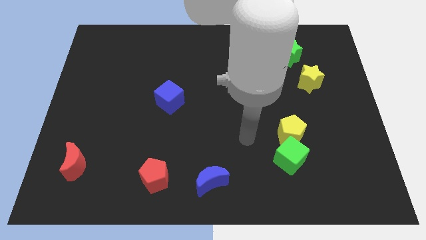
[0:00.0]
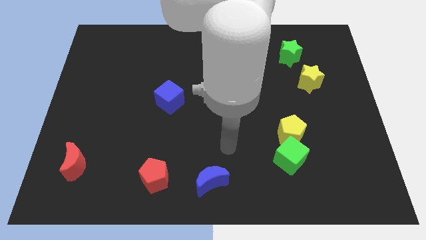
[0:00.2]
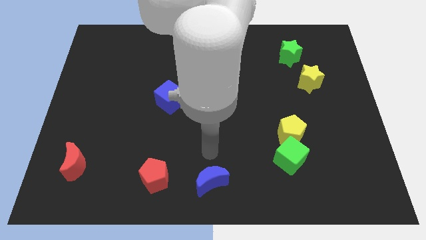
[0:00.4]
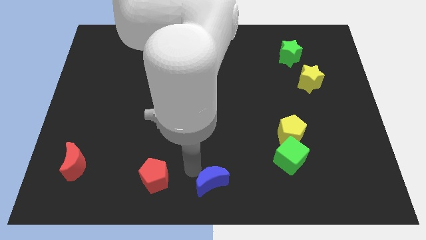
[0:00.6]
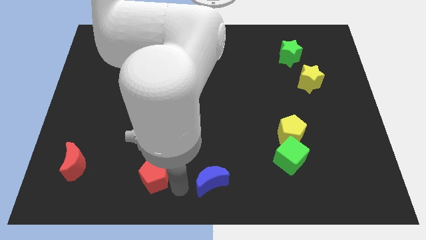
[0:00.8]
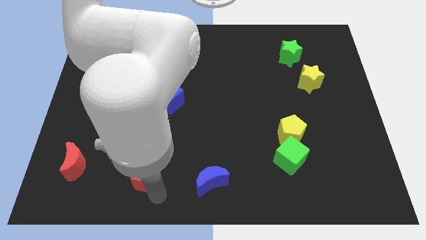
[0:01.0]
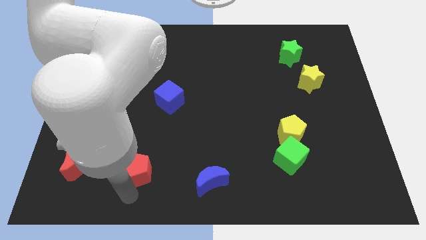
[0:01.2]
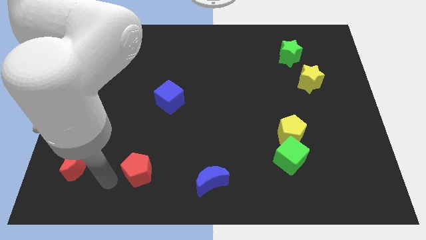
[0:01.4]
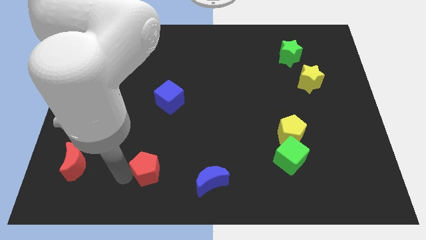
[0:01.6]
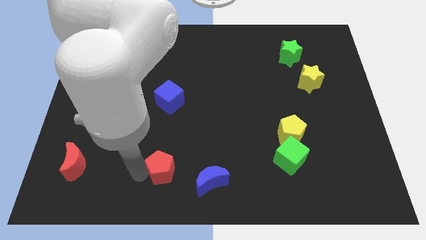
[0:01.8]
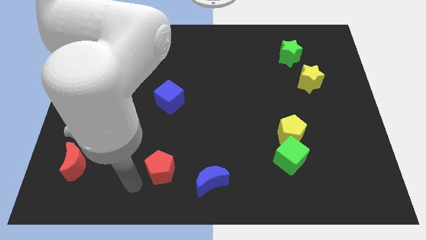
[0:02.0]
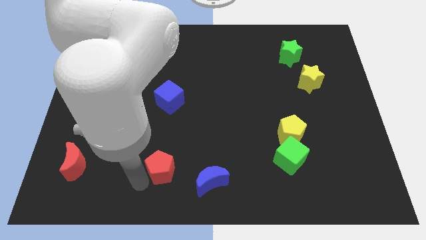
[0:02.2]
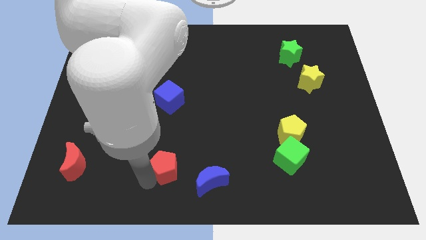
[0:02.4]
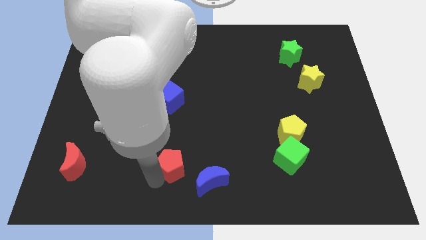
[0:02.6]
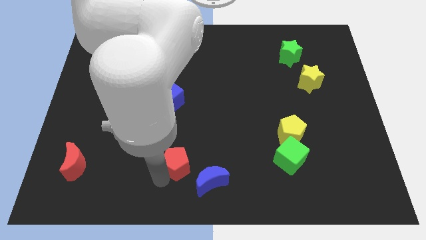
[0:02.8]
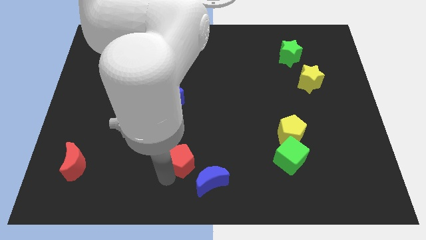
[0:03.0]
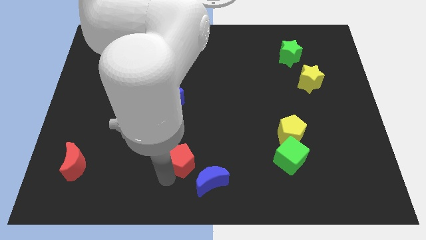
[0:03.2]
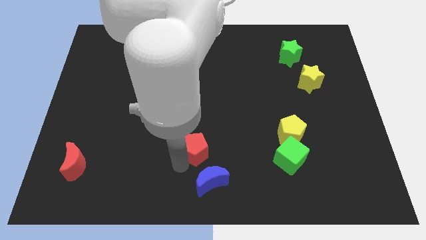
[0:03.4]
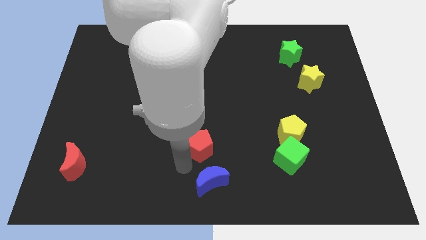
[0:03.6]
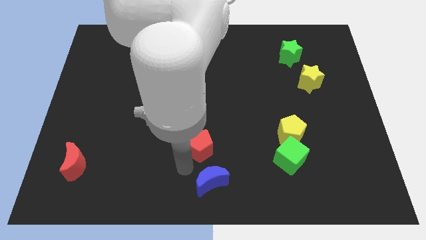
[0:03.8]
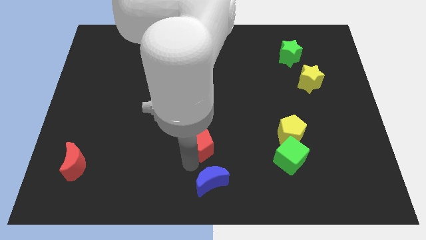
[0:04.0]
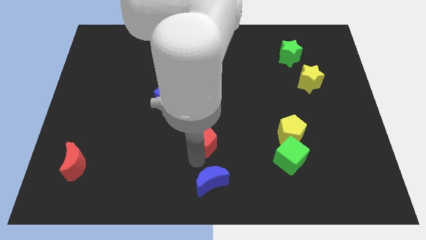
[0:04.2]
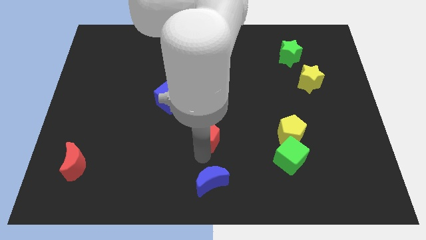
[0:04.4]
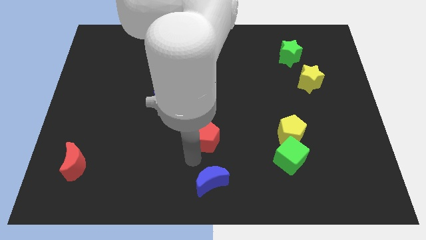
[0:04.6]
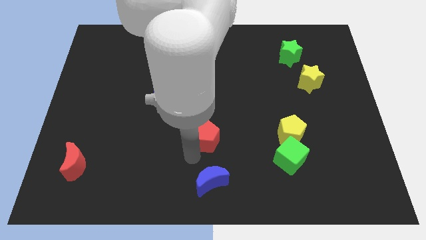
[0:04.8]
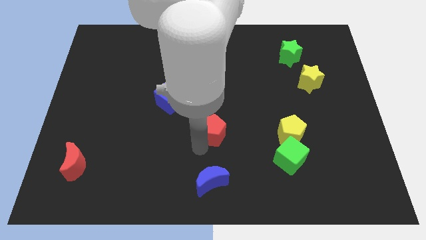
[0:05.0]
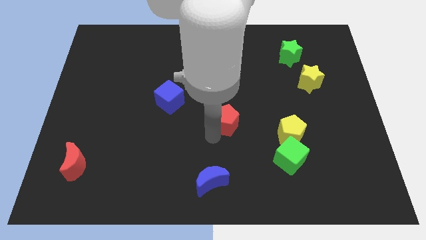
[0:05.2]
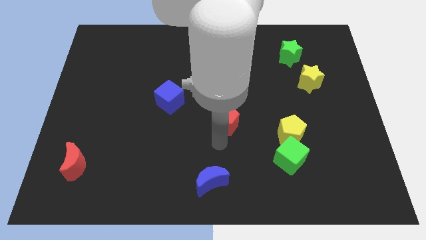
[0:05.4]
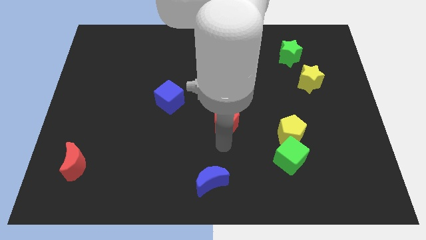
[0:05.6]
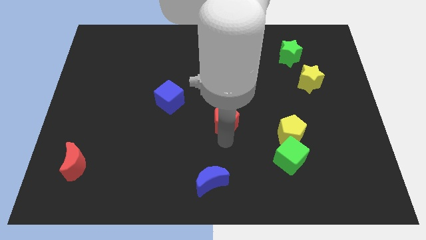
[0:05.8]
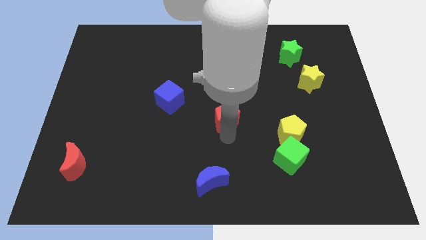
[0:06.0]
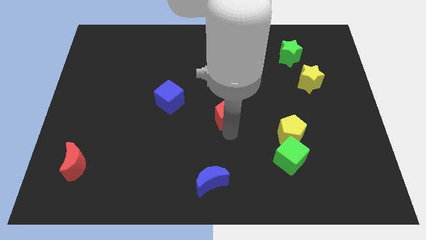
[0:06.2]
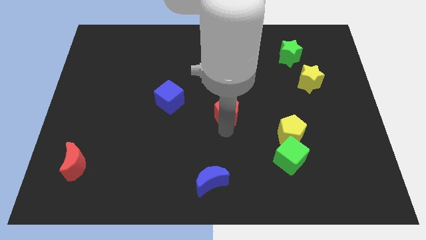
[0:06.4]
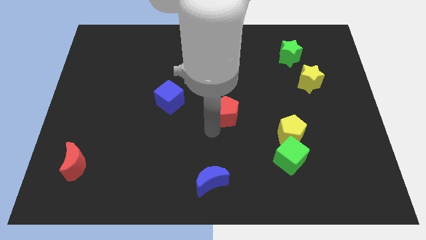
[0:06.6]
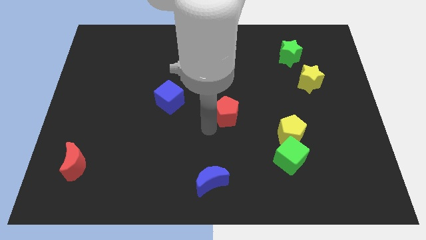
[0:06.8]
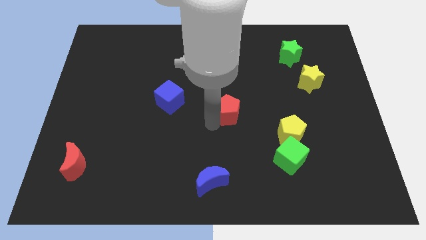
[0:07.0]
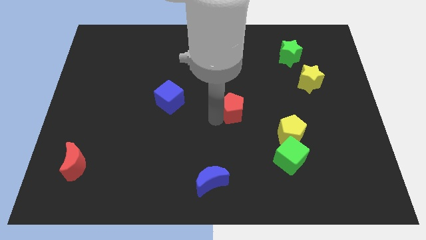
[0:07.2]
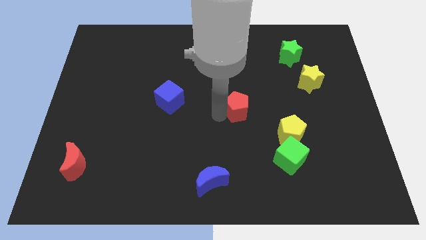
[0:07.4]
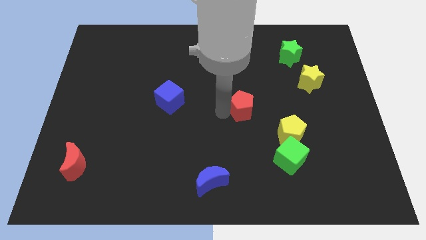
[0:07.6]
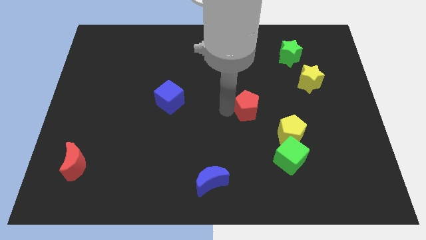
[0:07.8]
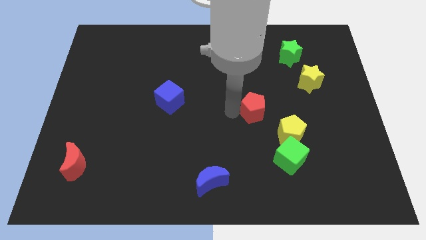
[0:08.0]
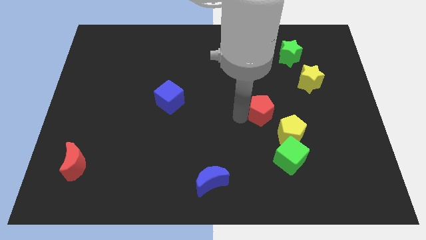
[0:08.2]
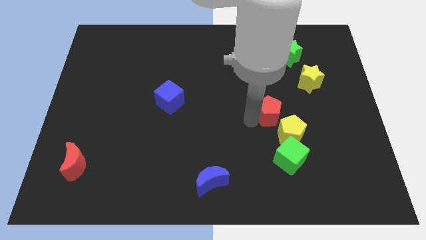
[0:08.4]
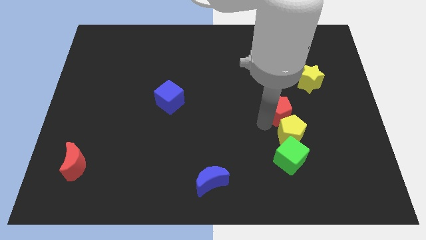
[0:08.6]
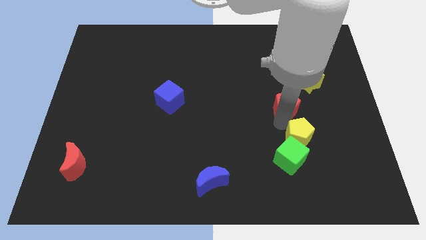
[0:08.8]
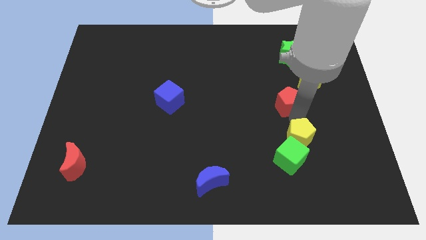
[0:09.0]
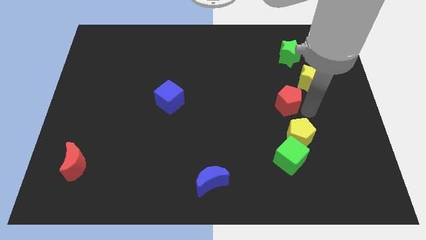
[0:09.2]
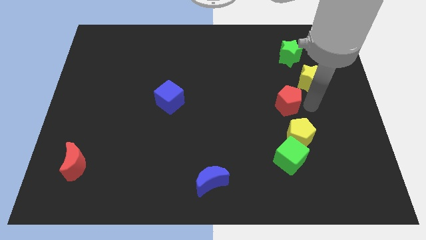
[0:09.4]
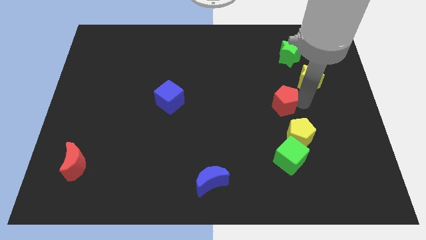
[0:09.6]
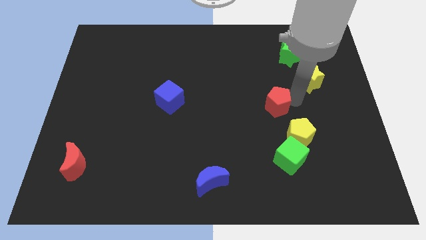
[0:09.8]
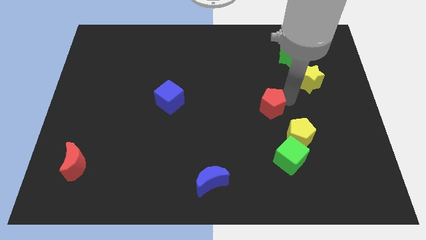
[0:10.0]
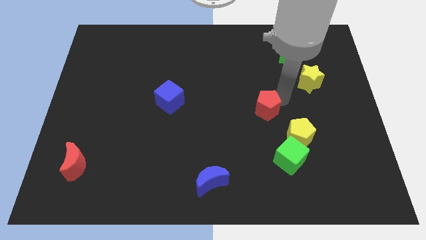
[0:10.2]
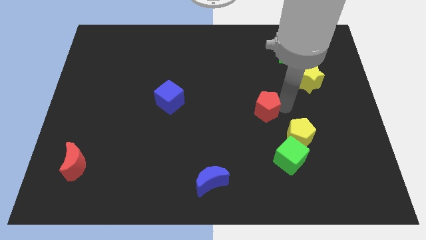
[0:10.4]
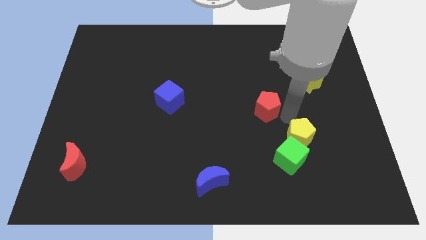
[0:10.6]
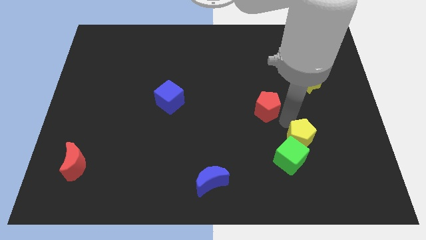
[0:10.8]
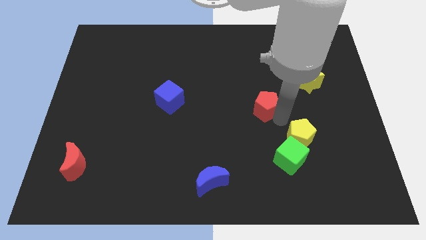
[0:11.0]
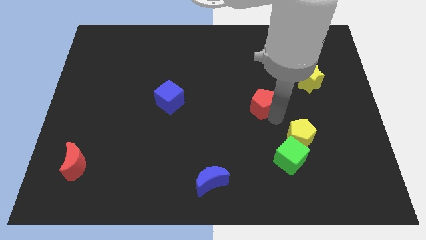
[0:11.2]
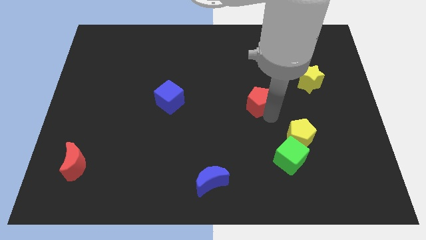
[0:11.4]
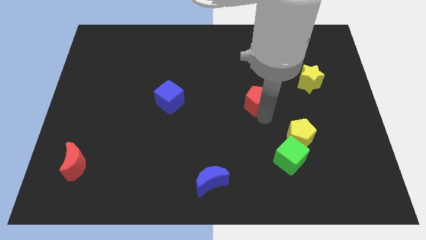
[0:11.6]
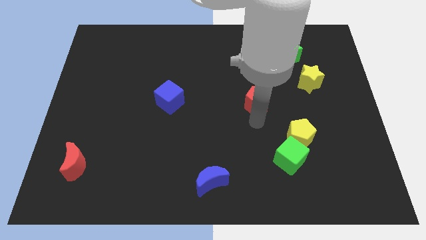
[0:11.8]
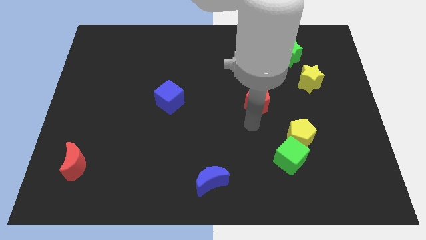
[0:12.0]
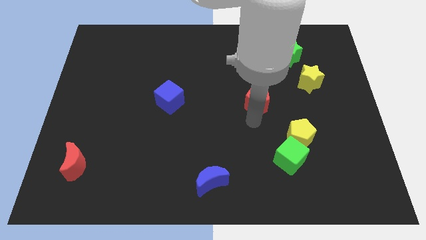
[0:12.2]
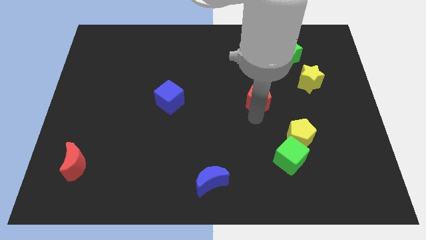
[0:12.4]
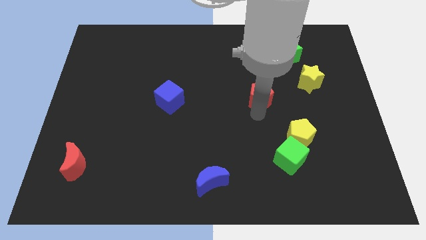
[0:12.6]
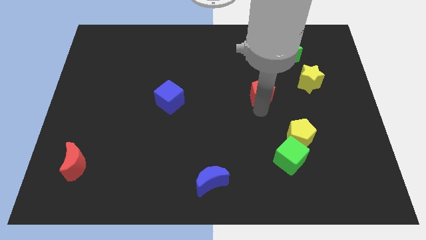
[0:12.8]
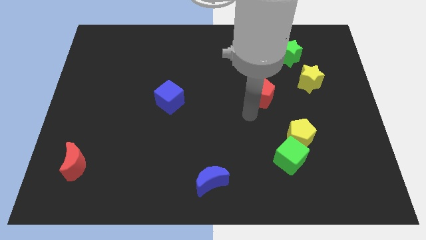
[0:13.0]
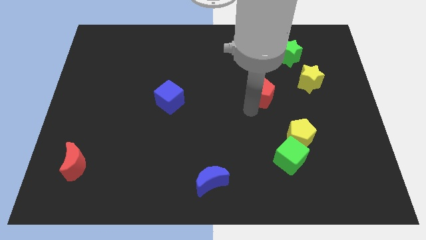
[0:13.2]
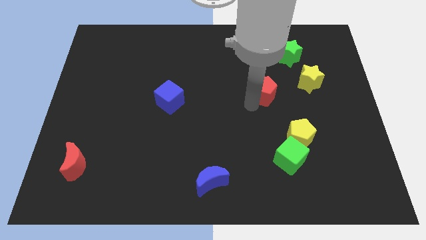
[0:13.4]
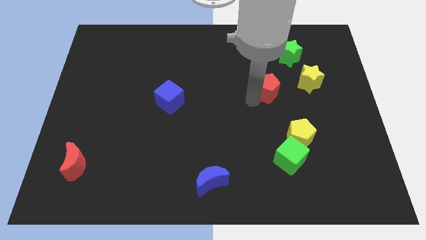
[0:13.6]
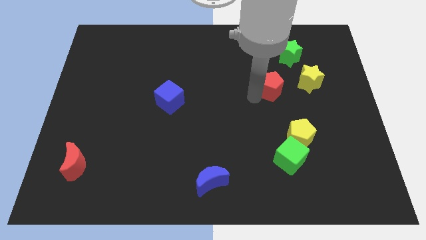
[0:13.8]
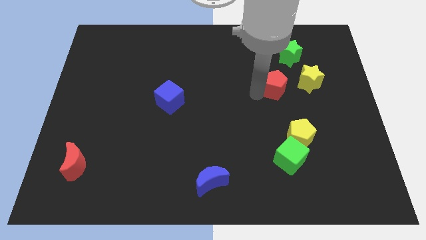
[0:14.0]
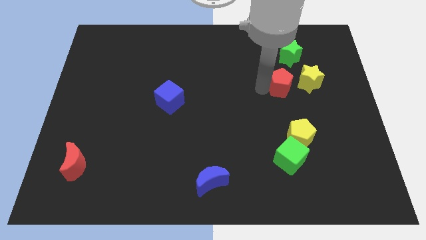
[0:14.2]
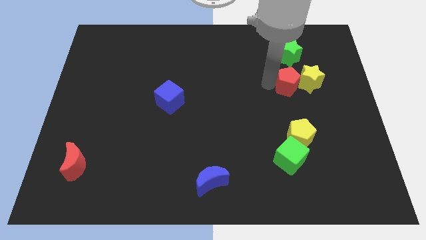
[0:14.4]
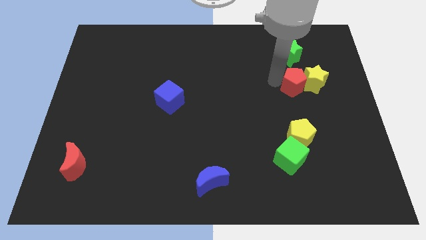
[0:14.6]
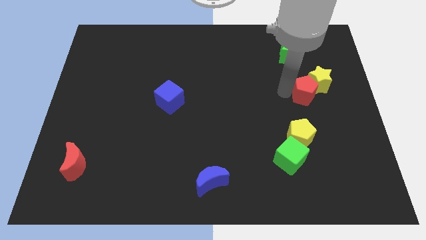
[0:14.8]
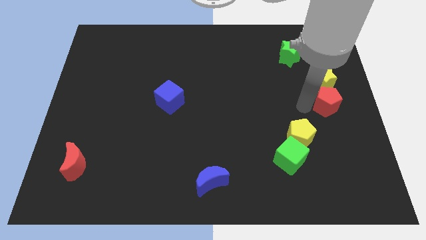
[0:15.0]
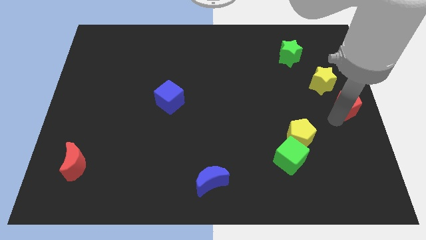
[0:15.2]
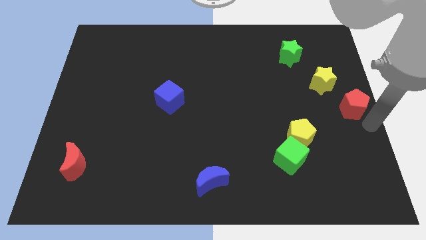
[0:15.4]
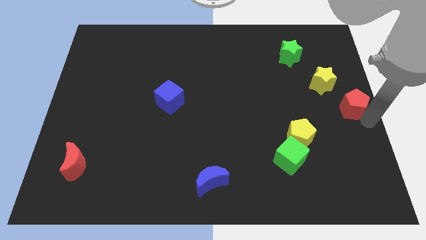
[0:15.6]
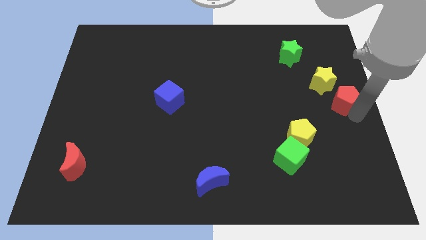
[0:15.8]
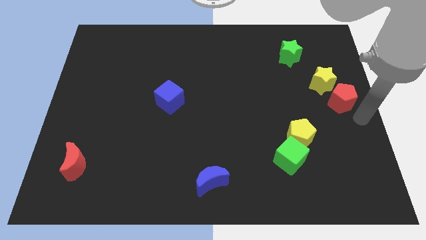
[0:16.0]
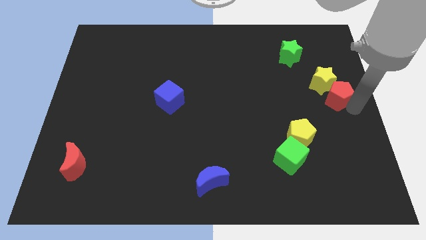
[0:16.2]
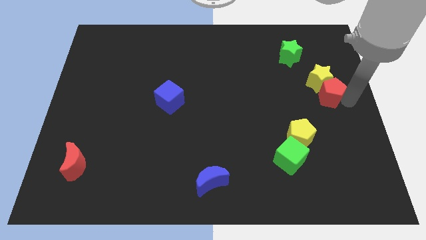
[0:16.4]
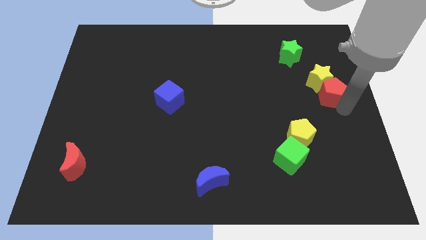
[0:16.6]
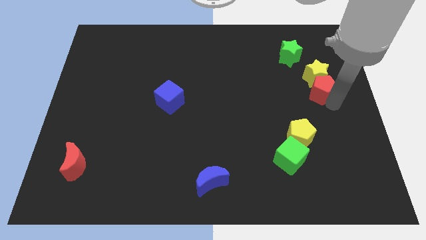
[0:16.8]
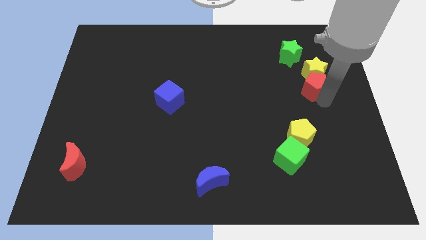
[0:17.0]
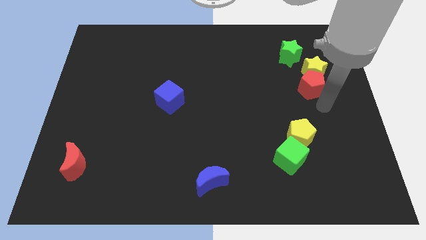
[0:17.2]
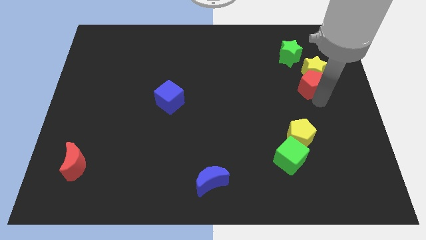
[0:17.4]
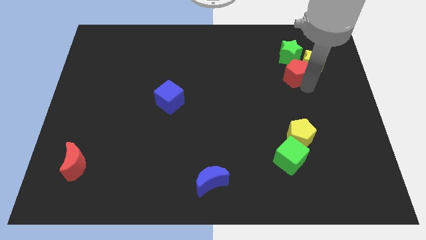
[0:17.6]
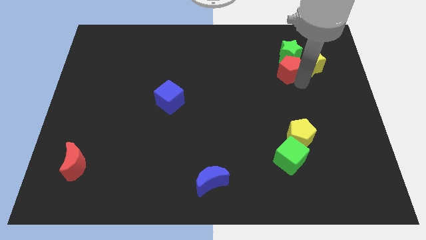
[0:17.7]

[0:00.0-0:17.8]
move the red pentagon to the green star
